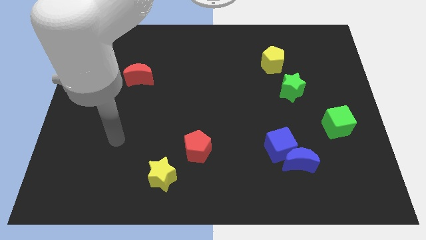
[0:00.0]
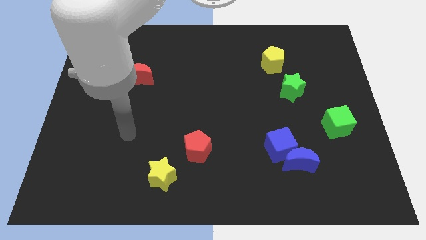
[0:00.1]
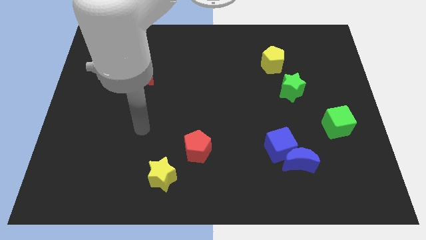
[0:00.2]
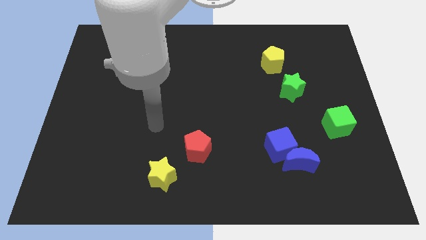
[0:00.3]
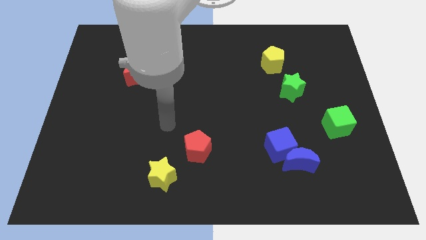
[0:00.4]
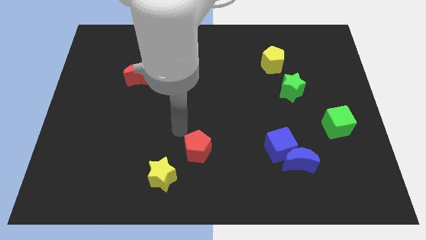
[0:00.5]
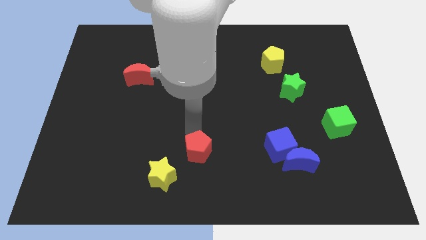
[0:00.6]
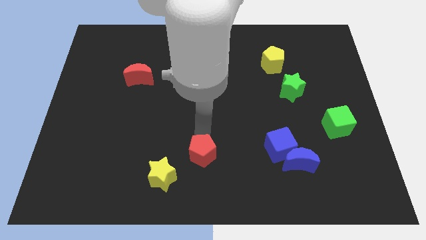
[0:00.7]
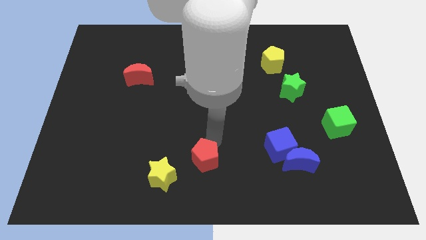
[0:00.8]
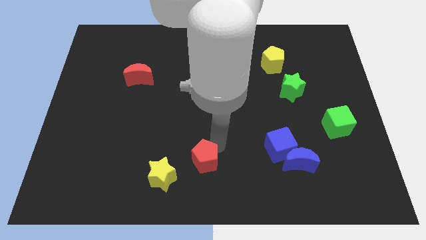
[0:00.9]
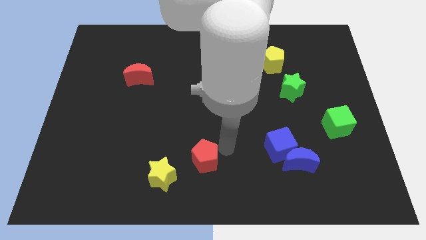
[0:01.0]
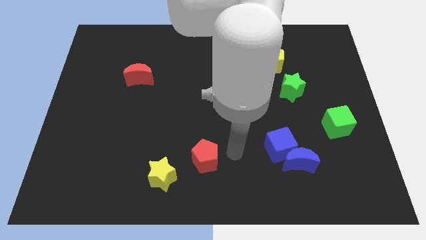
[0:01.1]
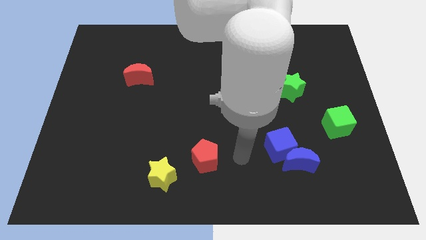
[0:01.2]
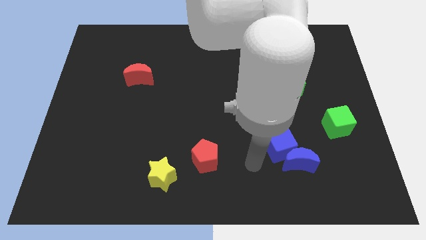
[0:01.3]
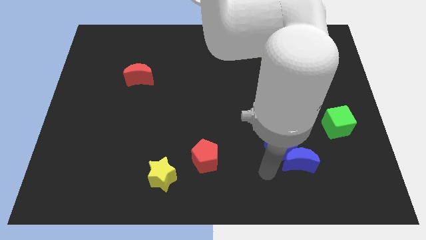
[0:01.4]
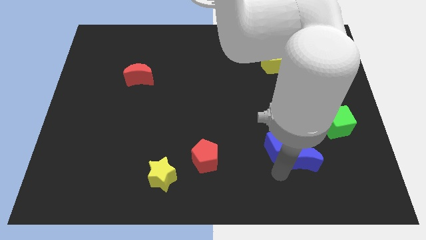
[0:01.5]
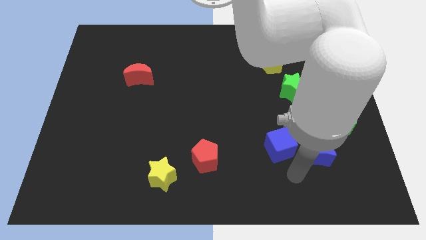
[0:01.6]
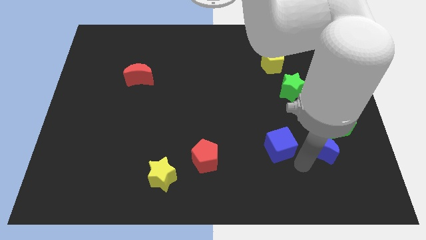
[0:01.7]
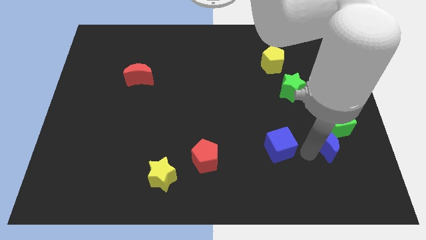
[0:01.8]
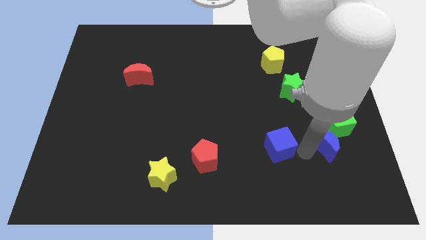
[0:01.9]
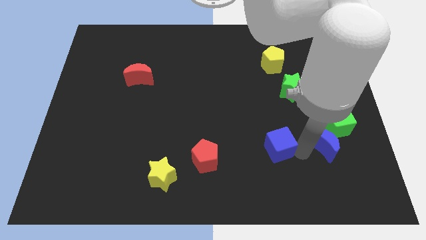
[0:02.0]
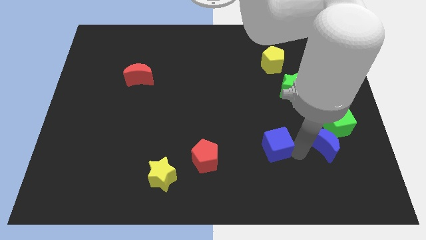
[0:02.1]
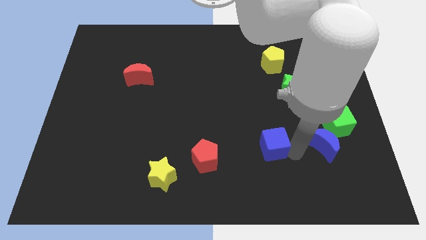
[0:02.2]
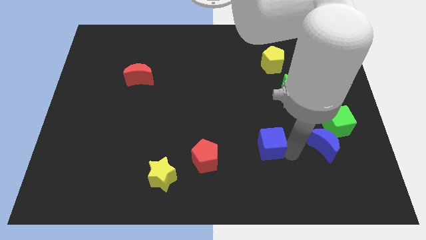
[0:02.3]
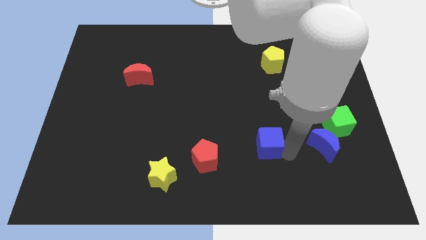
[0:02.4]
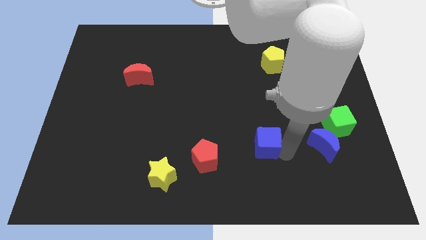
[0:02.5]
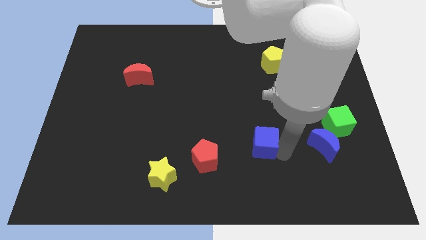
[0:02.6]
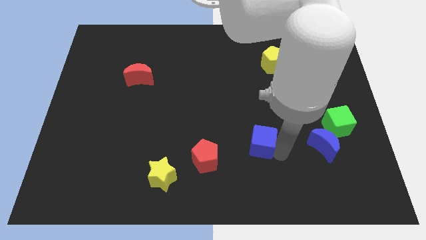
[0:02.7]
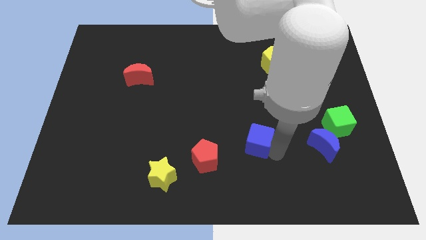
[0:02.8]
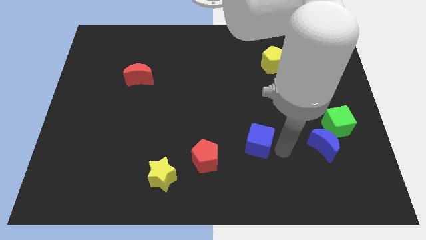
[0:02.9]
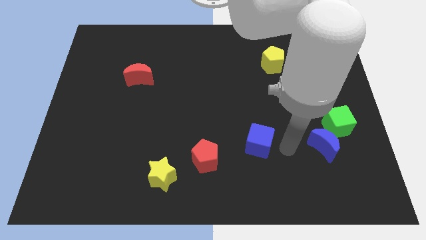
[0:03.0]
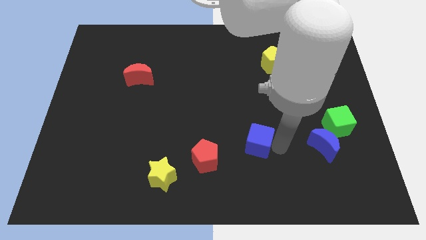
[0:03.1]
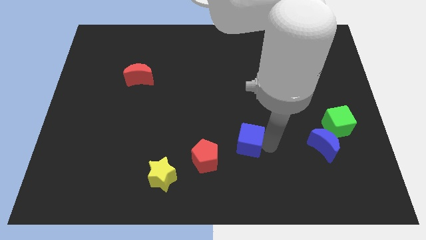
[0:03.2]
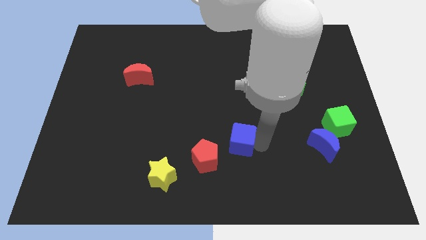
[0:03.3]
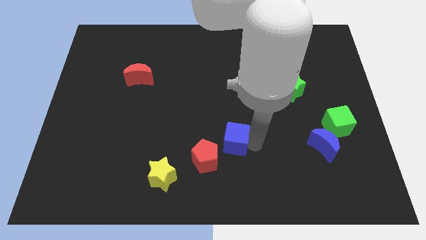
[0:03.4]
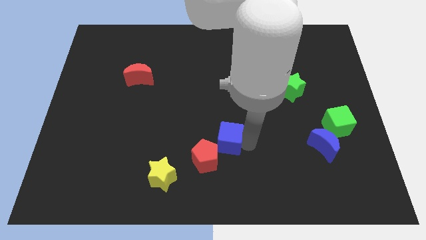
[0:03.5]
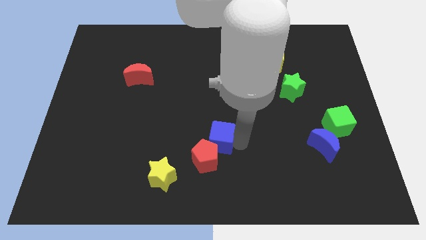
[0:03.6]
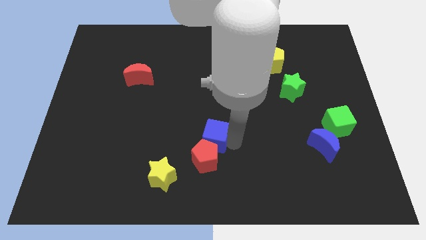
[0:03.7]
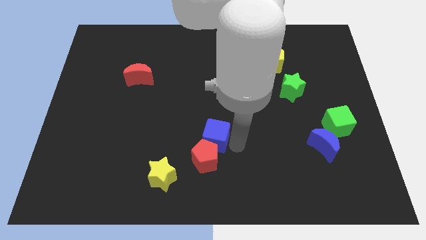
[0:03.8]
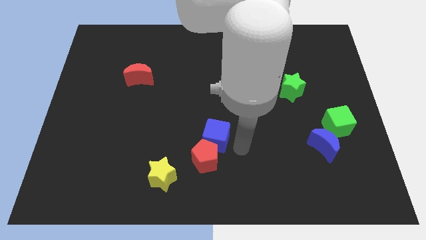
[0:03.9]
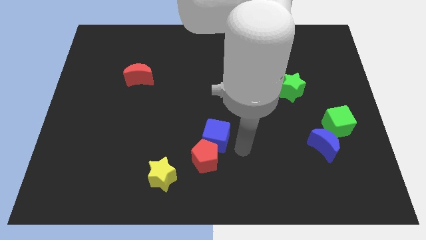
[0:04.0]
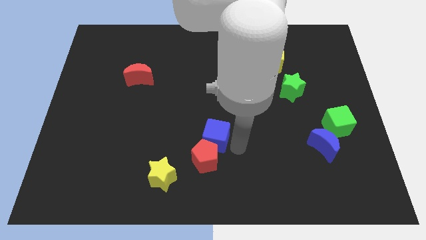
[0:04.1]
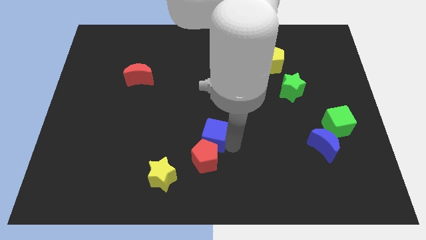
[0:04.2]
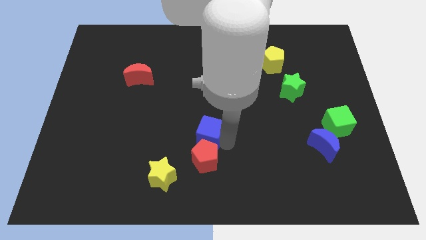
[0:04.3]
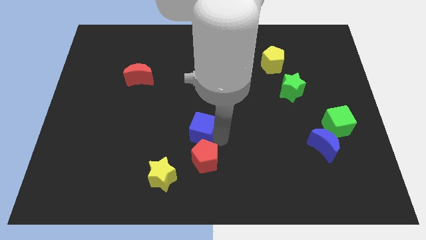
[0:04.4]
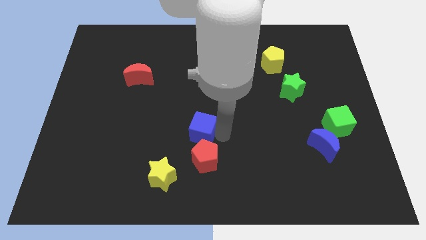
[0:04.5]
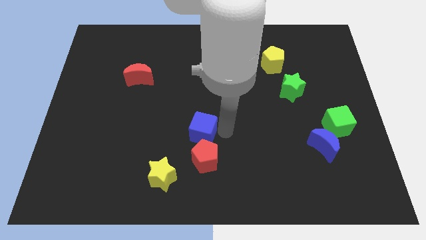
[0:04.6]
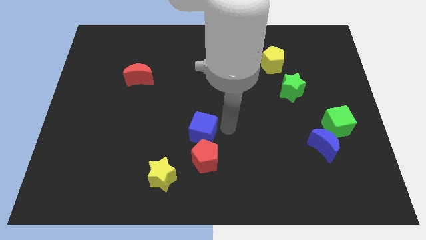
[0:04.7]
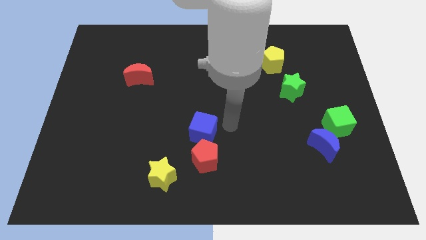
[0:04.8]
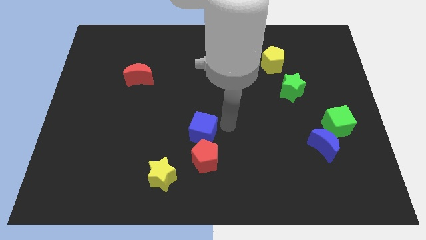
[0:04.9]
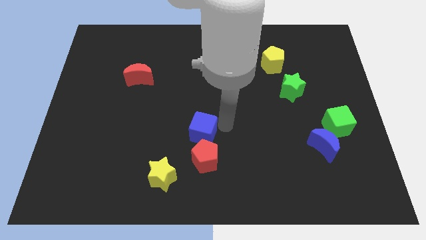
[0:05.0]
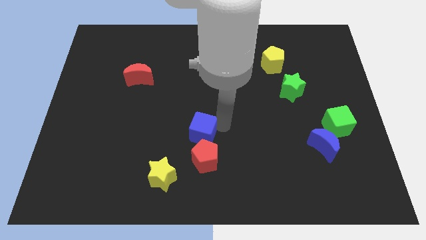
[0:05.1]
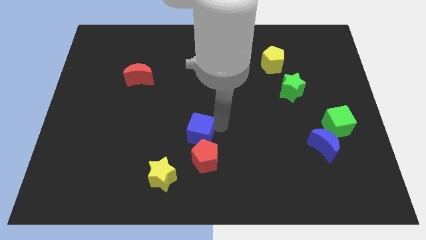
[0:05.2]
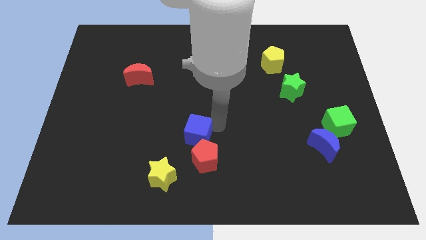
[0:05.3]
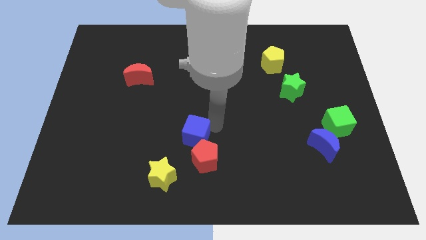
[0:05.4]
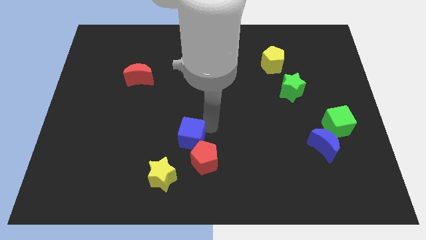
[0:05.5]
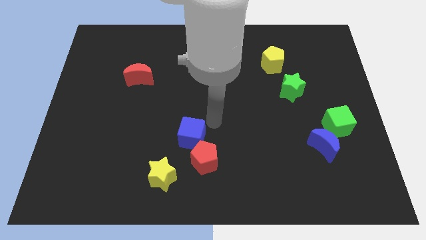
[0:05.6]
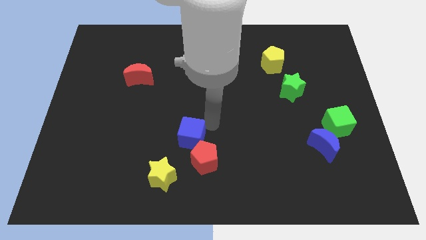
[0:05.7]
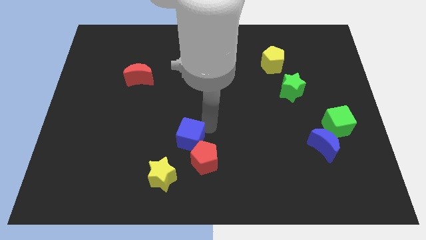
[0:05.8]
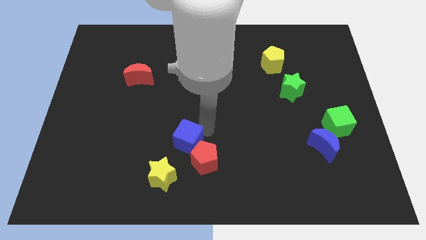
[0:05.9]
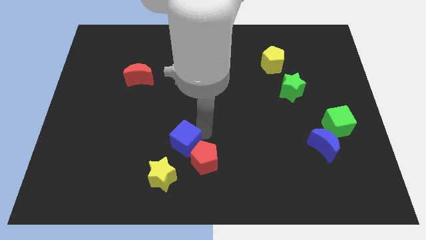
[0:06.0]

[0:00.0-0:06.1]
push the blue cube left of the red pentagon

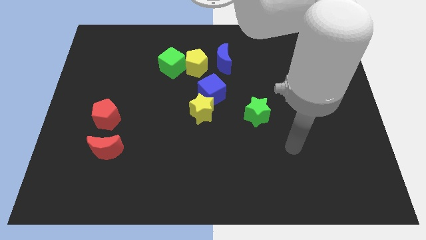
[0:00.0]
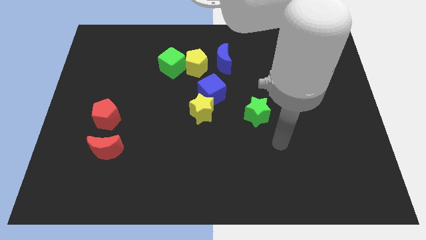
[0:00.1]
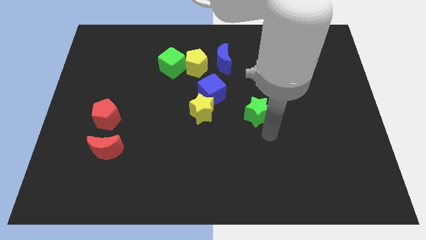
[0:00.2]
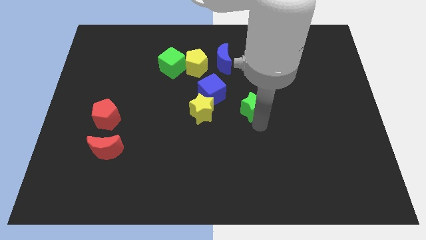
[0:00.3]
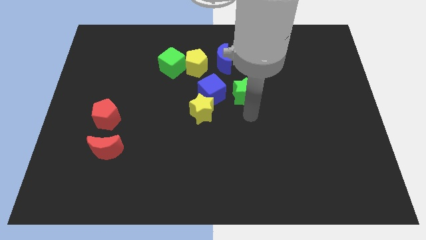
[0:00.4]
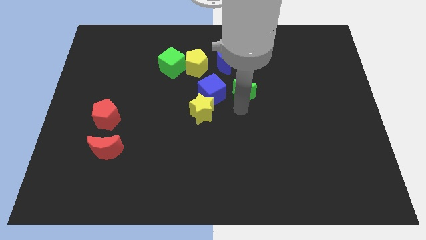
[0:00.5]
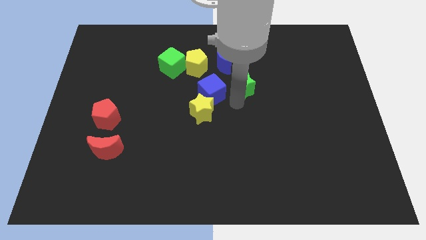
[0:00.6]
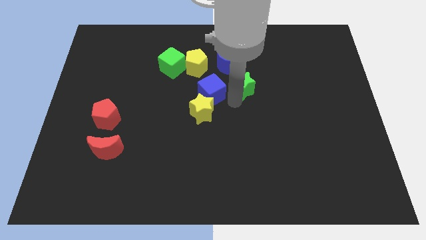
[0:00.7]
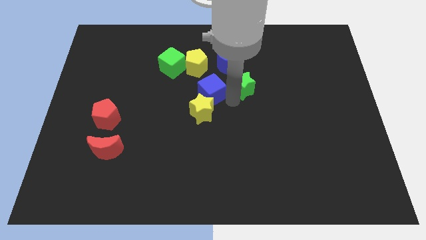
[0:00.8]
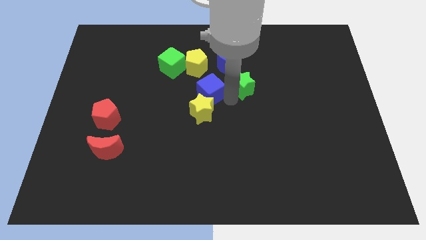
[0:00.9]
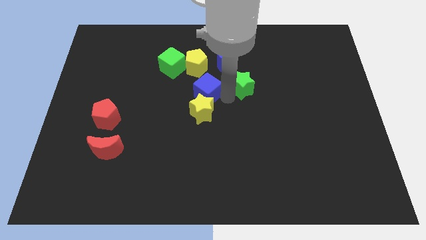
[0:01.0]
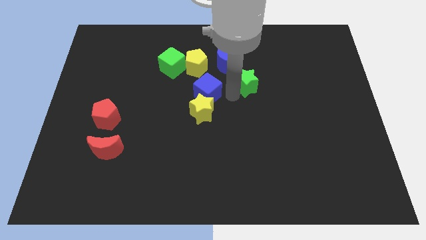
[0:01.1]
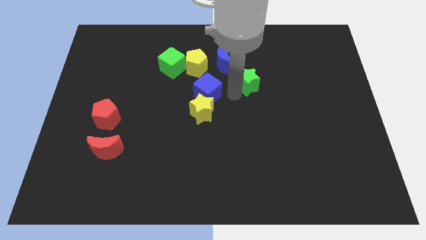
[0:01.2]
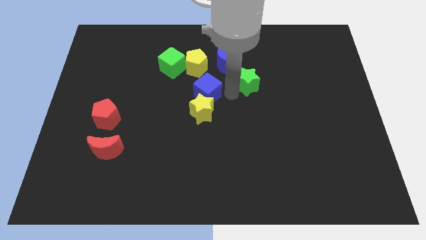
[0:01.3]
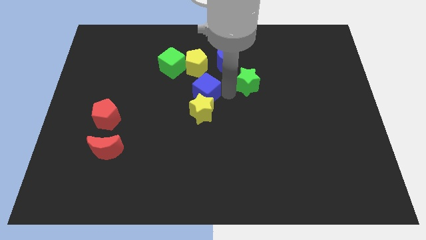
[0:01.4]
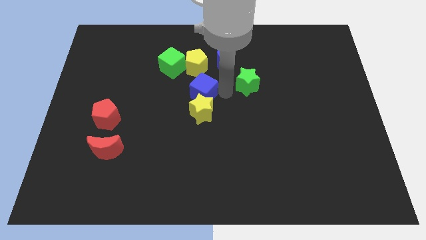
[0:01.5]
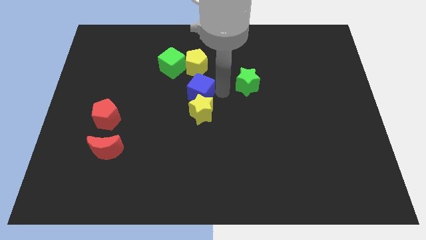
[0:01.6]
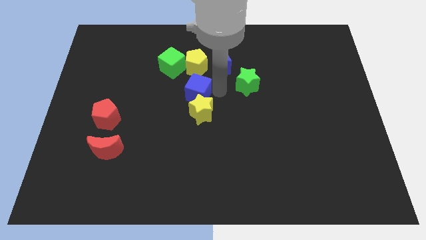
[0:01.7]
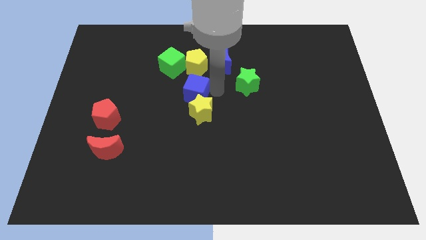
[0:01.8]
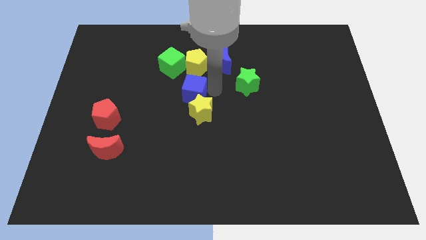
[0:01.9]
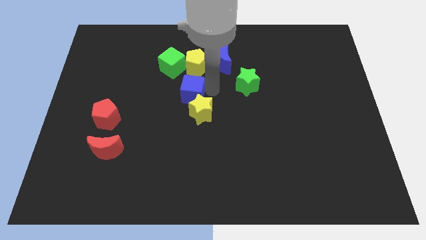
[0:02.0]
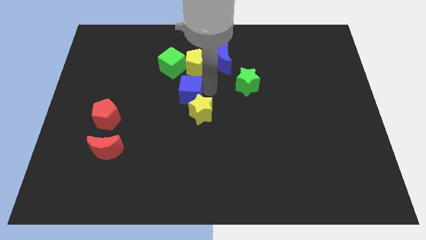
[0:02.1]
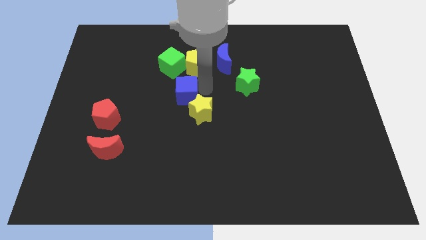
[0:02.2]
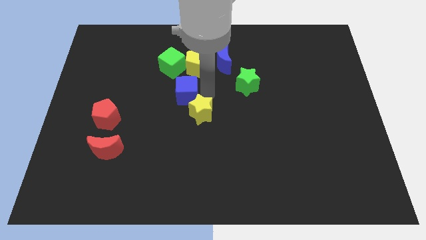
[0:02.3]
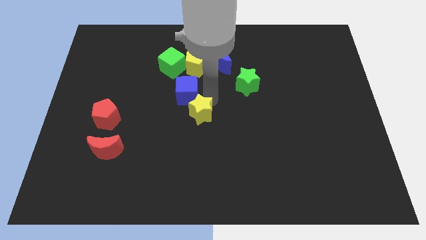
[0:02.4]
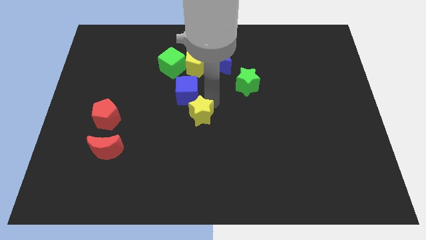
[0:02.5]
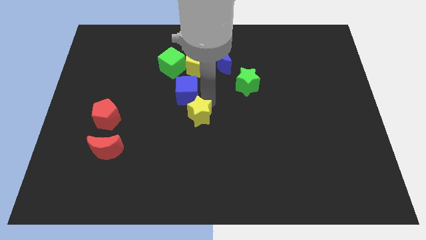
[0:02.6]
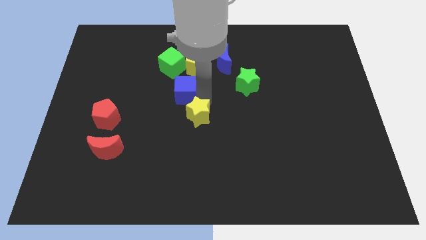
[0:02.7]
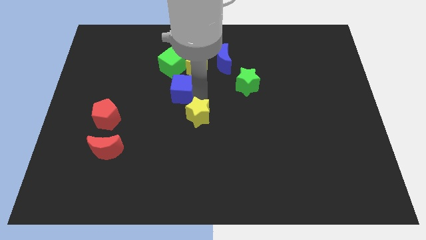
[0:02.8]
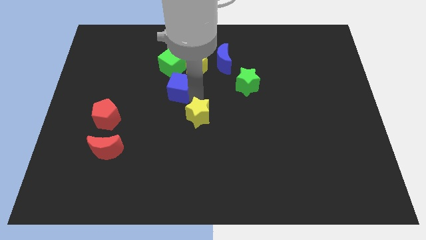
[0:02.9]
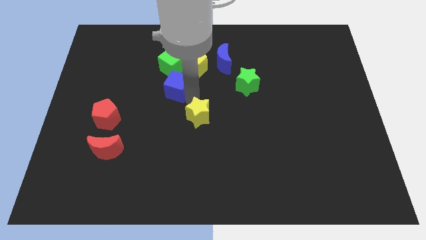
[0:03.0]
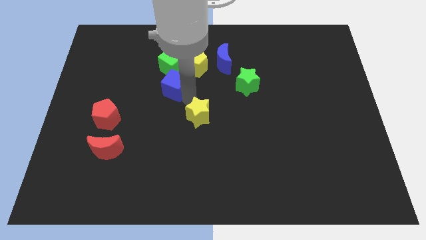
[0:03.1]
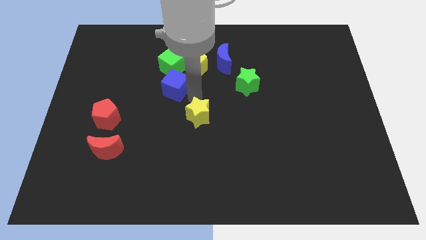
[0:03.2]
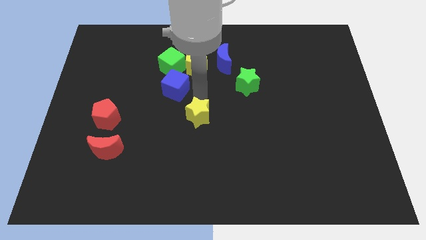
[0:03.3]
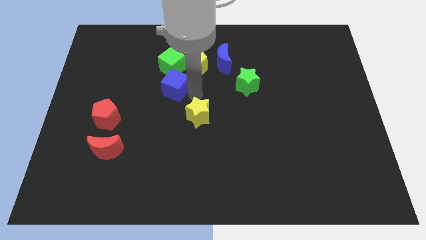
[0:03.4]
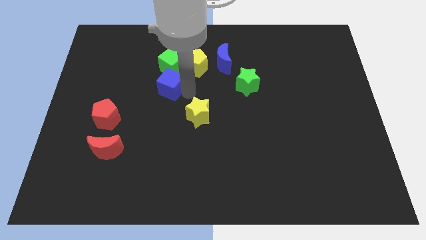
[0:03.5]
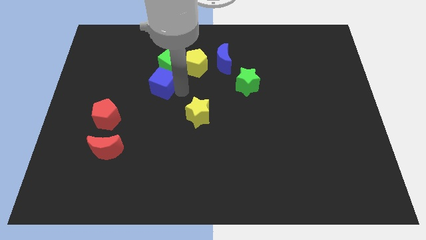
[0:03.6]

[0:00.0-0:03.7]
slide the blue cube to the bottom left of the green cube
